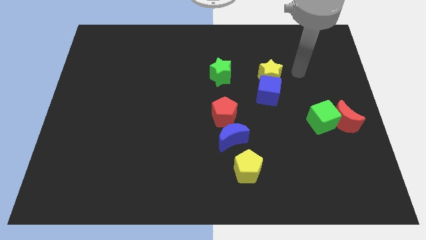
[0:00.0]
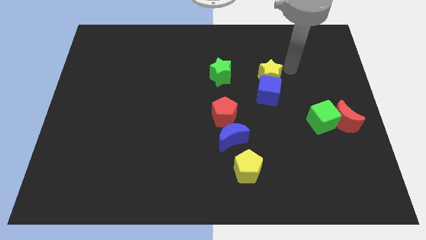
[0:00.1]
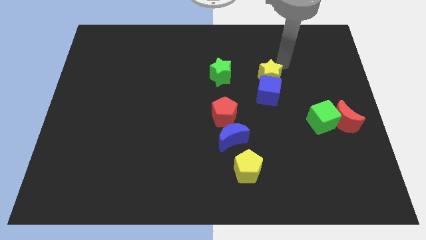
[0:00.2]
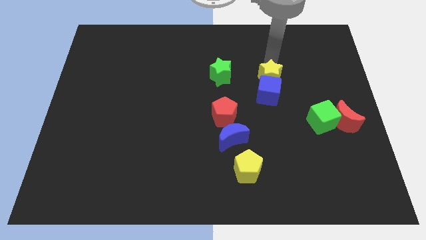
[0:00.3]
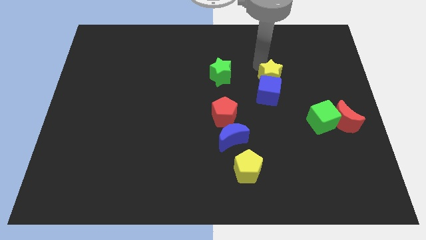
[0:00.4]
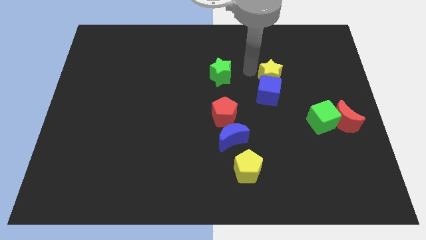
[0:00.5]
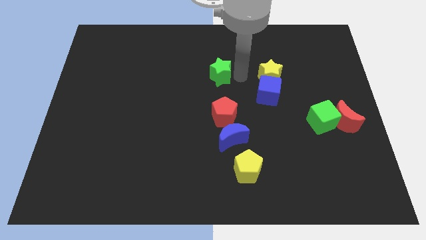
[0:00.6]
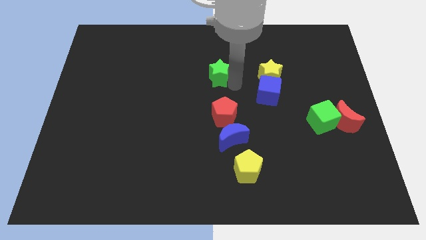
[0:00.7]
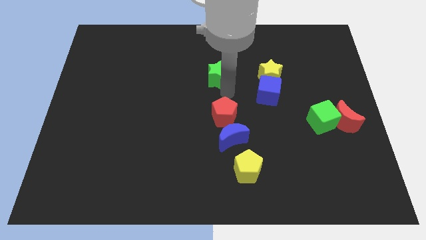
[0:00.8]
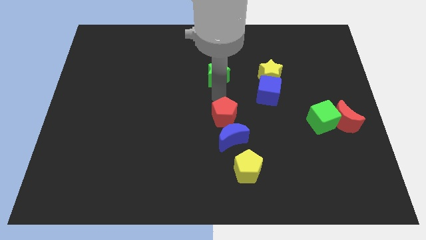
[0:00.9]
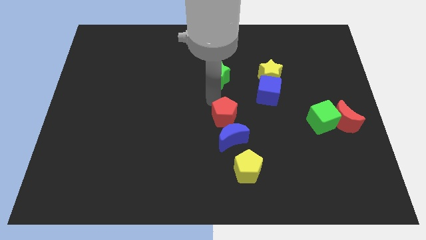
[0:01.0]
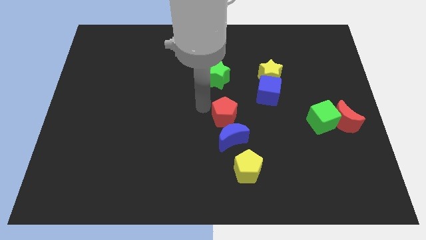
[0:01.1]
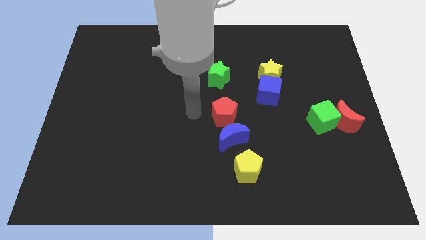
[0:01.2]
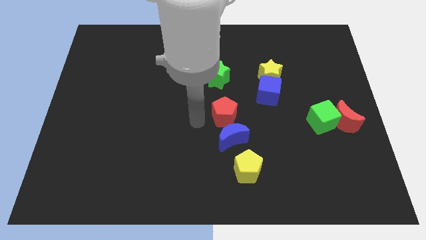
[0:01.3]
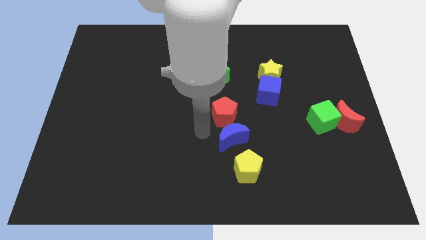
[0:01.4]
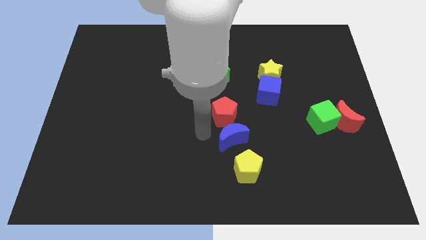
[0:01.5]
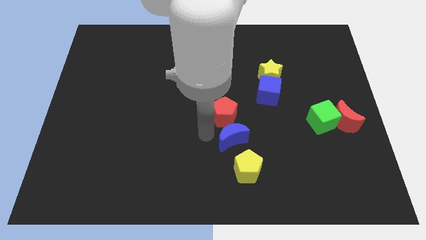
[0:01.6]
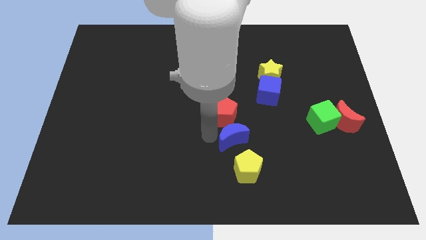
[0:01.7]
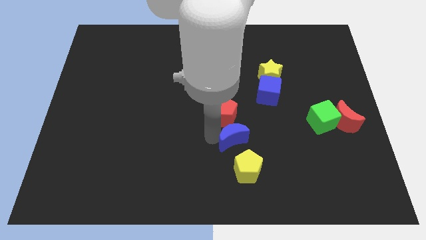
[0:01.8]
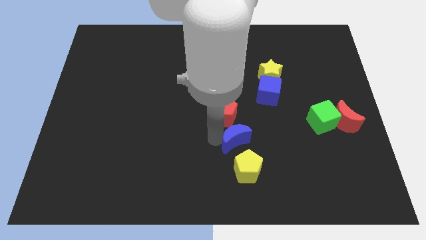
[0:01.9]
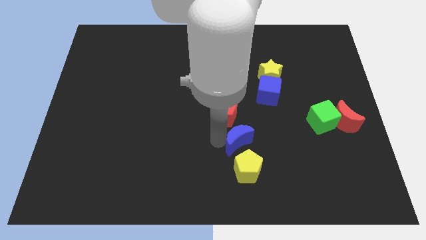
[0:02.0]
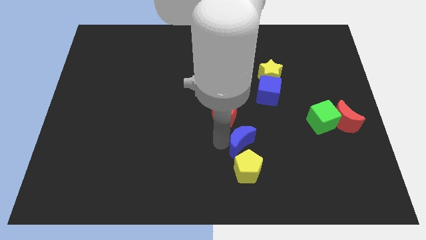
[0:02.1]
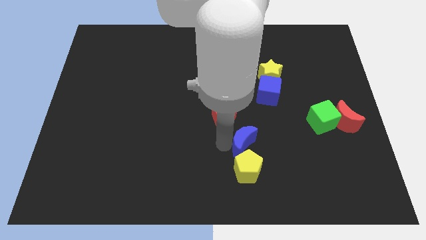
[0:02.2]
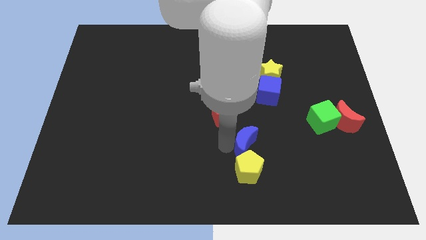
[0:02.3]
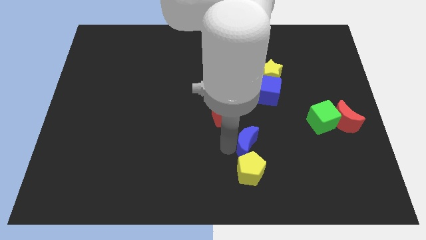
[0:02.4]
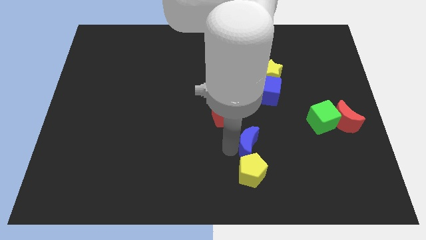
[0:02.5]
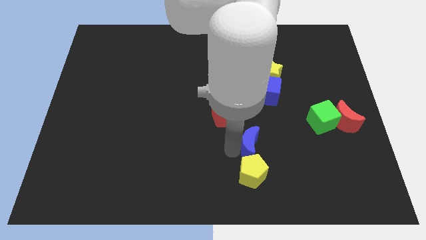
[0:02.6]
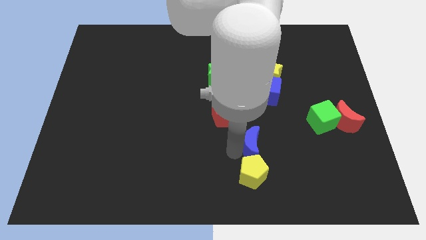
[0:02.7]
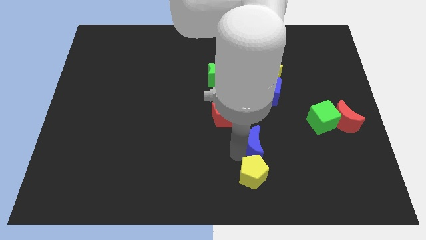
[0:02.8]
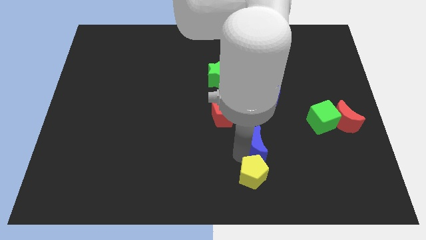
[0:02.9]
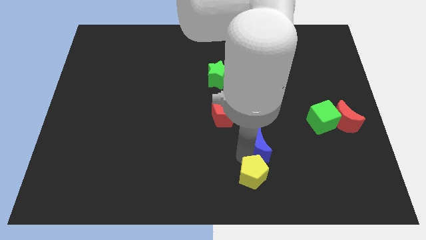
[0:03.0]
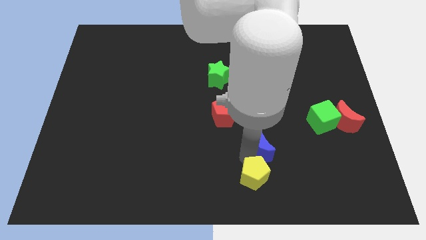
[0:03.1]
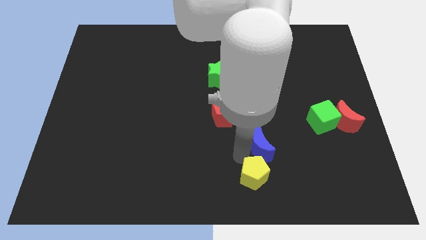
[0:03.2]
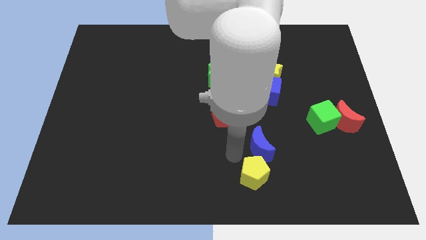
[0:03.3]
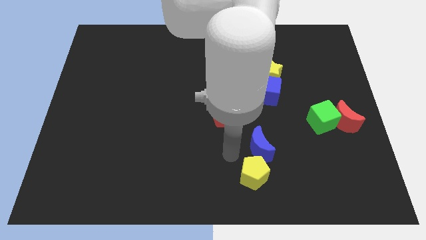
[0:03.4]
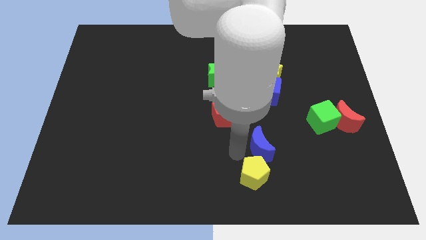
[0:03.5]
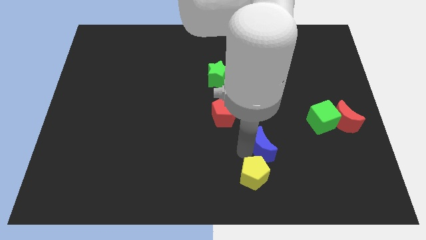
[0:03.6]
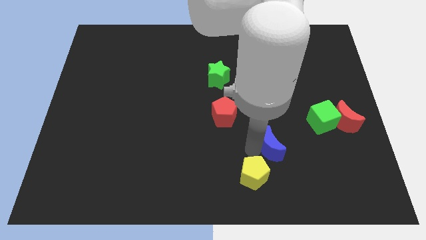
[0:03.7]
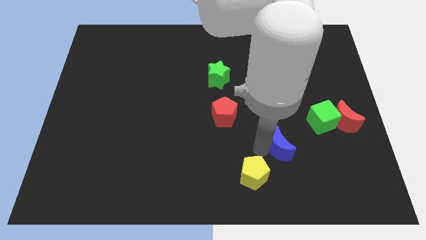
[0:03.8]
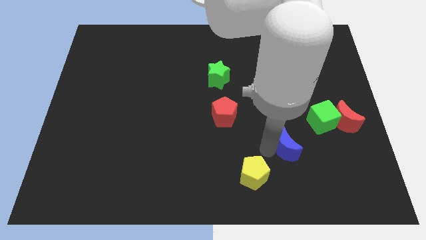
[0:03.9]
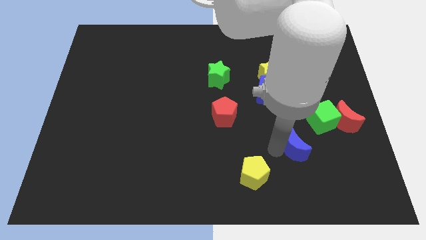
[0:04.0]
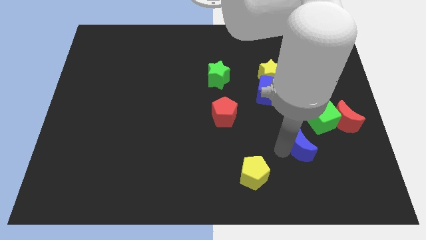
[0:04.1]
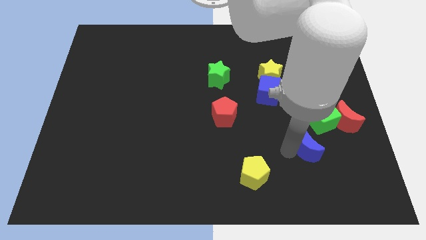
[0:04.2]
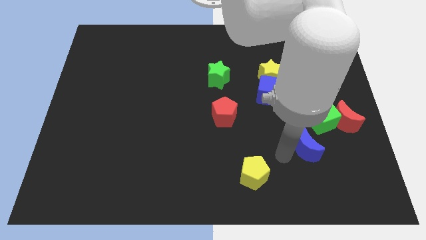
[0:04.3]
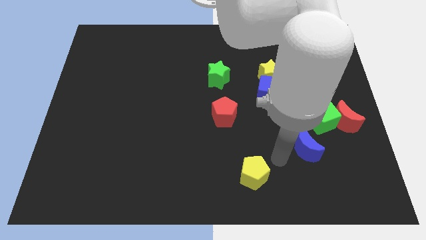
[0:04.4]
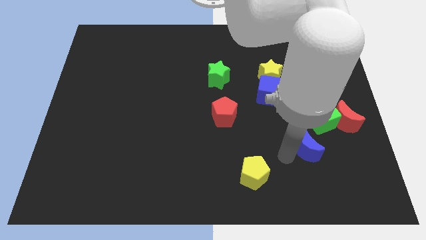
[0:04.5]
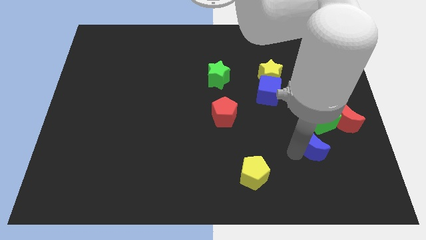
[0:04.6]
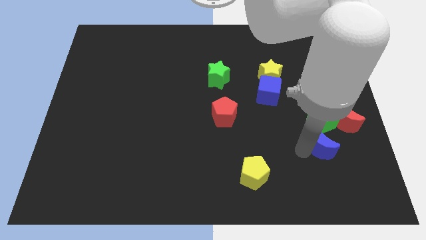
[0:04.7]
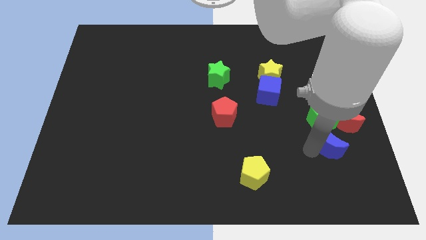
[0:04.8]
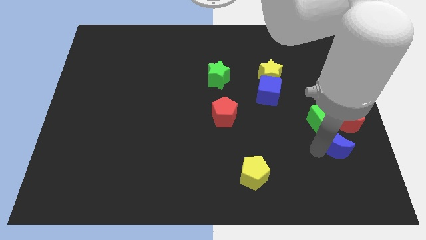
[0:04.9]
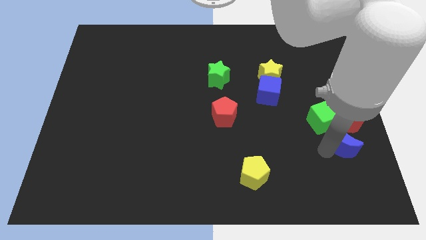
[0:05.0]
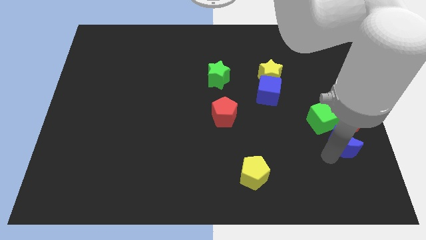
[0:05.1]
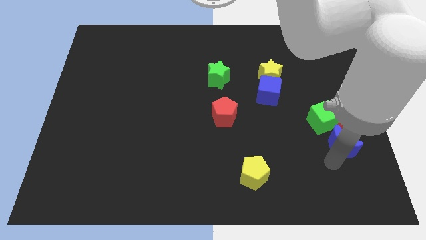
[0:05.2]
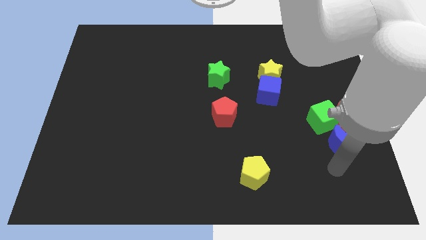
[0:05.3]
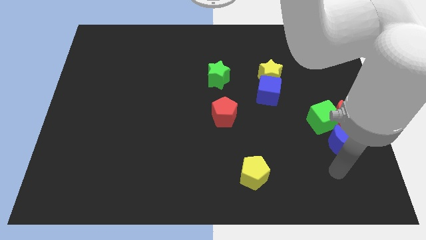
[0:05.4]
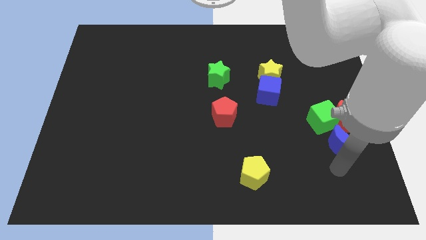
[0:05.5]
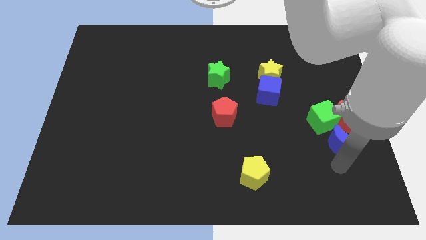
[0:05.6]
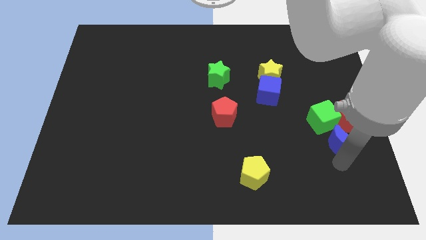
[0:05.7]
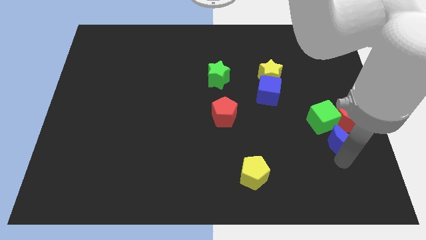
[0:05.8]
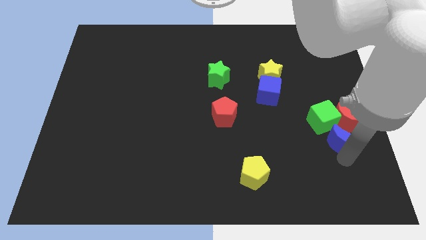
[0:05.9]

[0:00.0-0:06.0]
move the blue moon next to the red moon

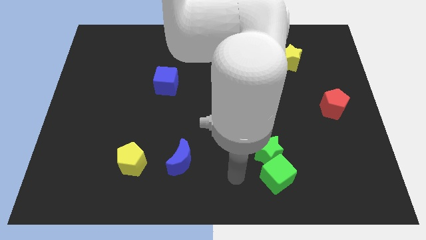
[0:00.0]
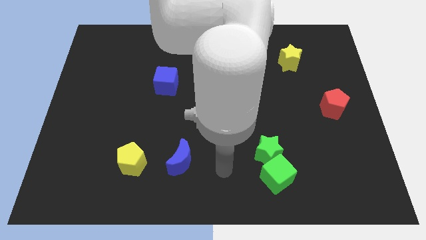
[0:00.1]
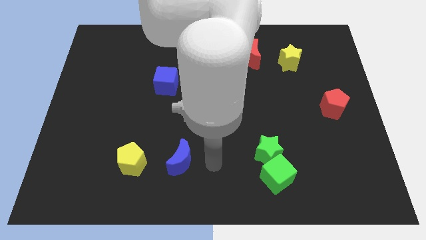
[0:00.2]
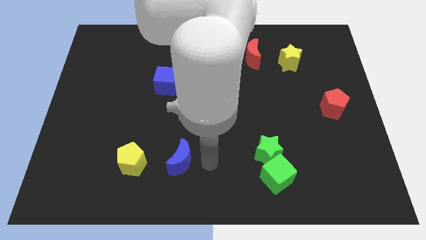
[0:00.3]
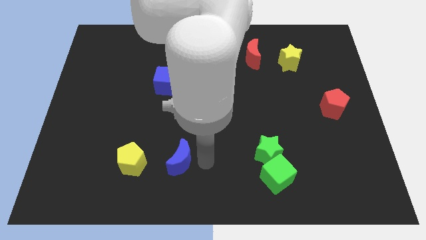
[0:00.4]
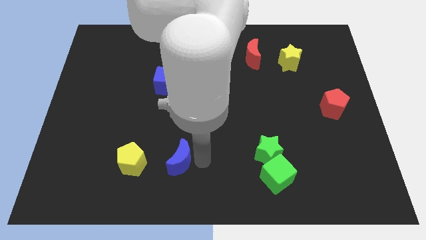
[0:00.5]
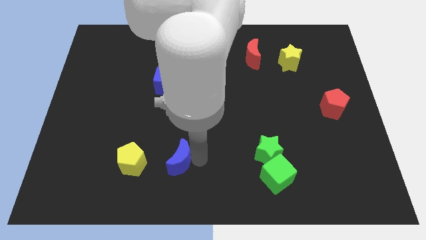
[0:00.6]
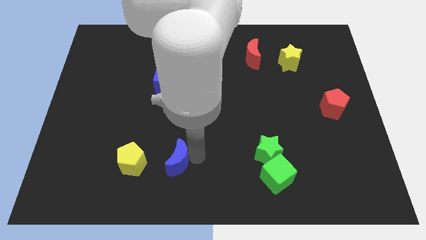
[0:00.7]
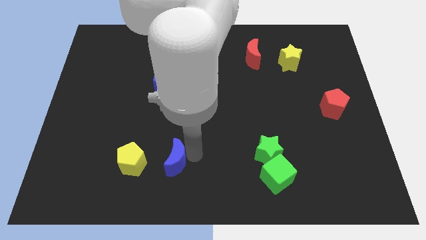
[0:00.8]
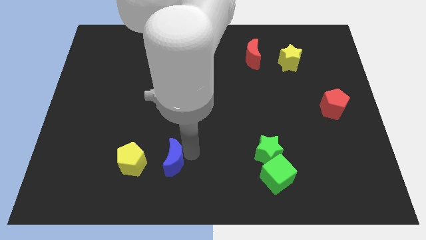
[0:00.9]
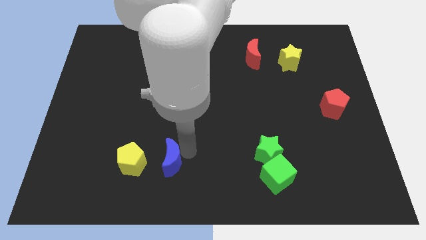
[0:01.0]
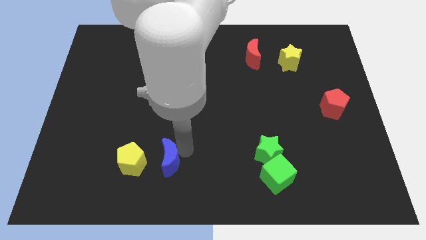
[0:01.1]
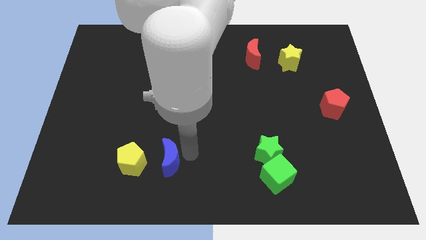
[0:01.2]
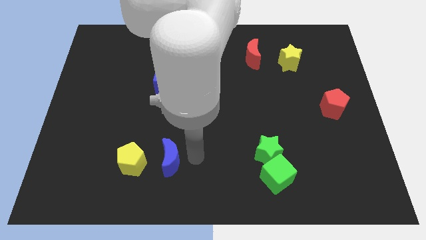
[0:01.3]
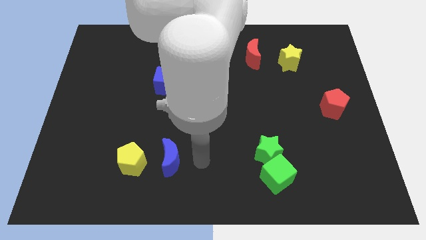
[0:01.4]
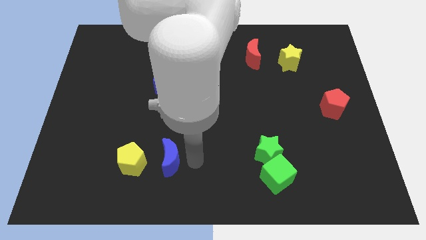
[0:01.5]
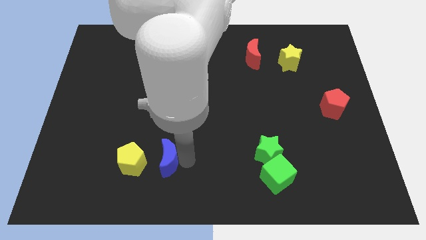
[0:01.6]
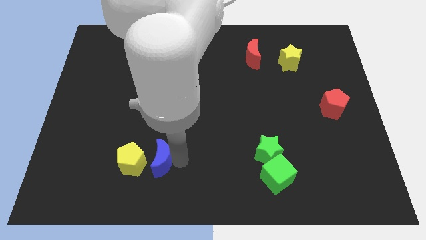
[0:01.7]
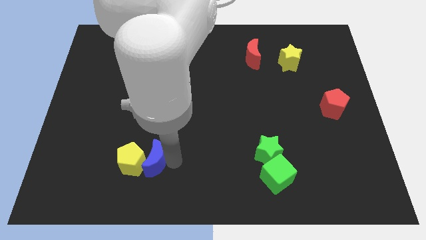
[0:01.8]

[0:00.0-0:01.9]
slide the blue moon next to the yellow pentagon
